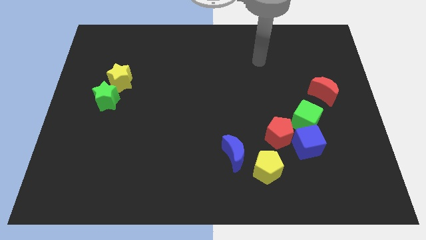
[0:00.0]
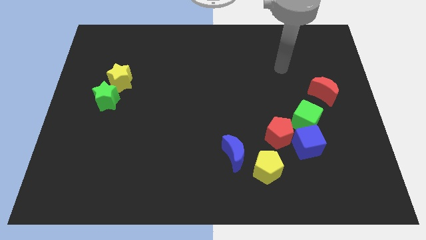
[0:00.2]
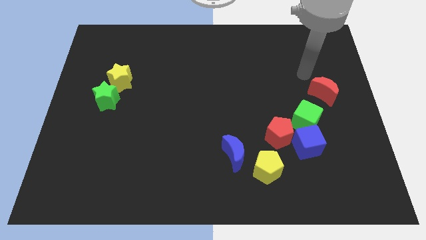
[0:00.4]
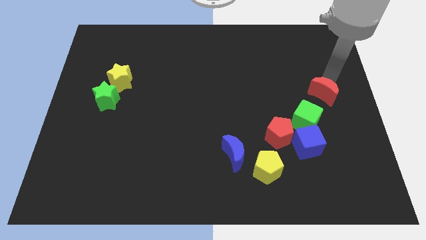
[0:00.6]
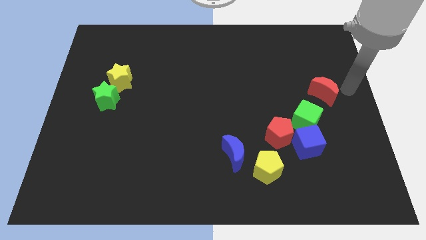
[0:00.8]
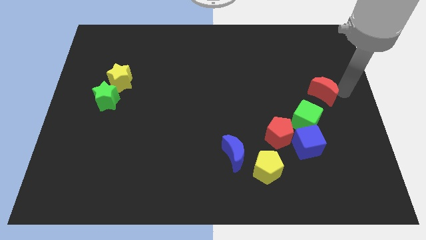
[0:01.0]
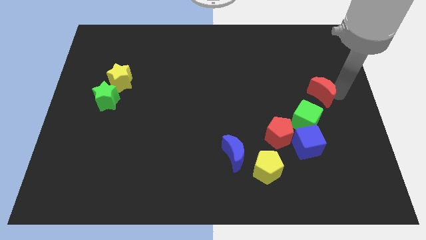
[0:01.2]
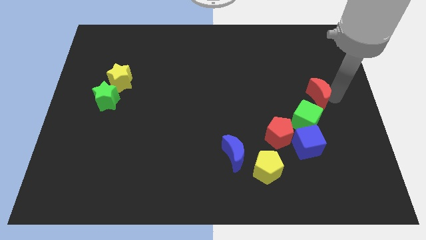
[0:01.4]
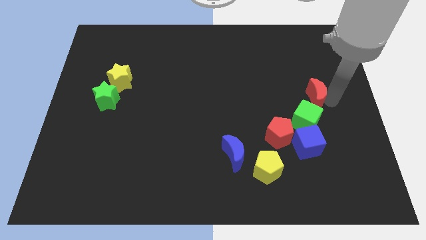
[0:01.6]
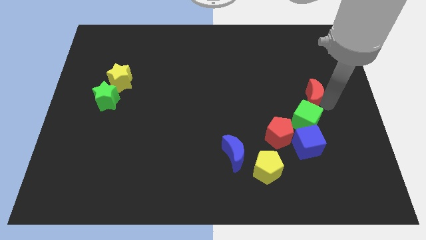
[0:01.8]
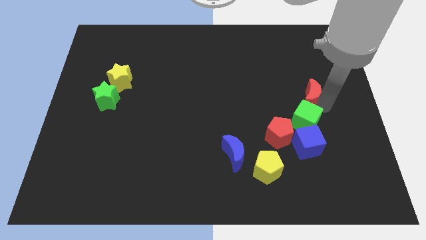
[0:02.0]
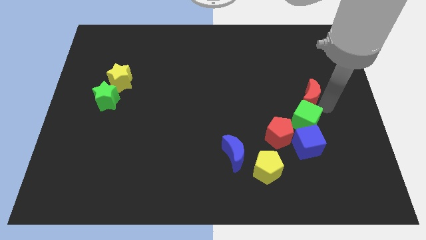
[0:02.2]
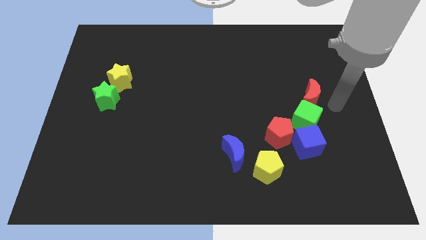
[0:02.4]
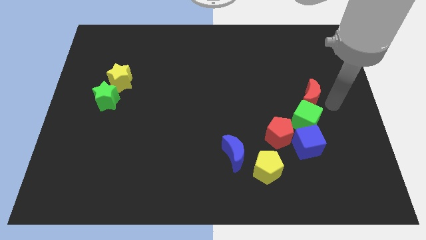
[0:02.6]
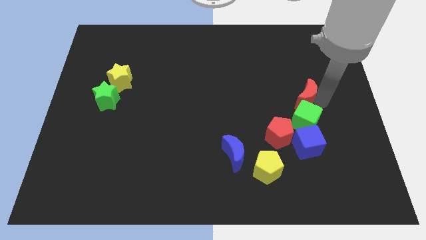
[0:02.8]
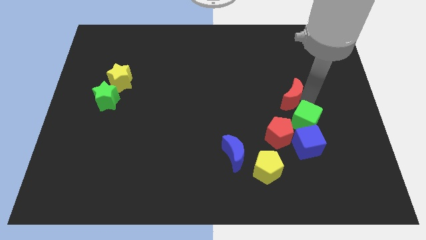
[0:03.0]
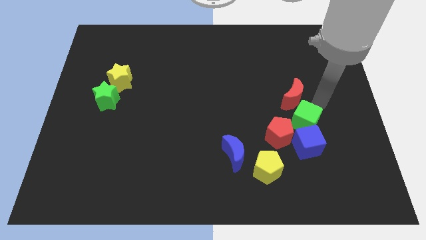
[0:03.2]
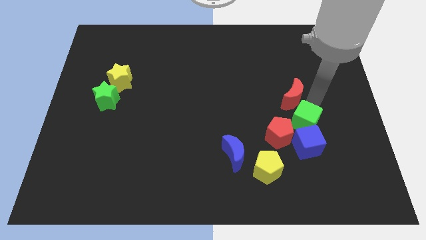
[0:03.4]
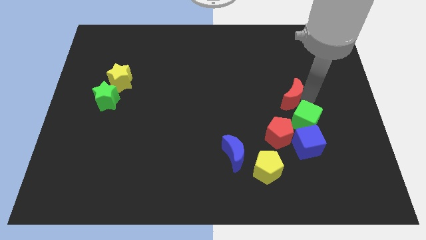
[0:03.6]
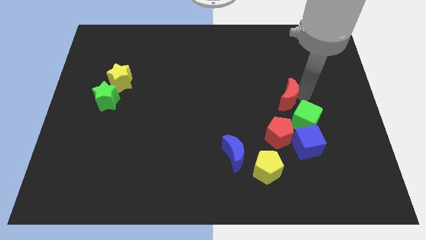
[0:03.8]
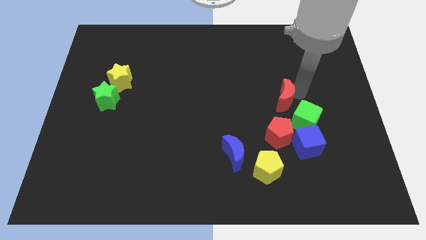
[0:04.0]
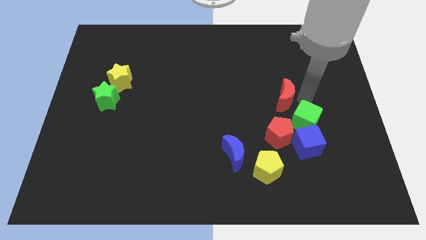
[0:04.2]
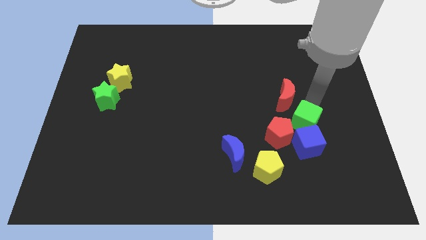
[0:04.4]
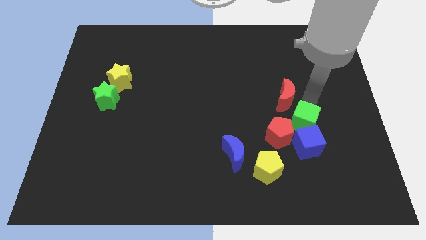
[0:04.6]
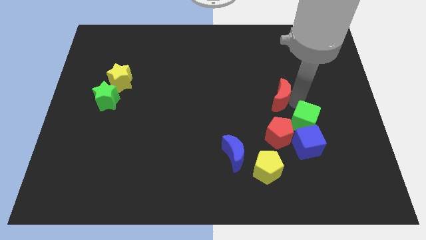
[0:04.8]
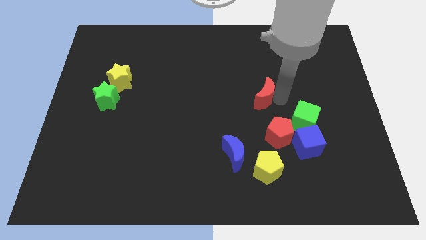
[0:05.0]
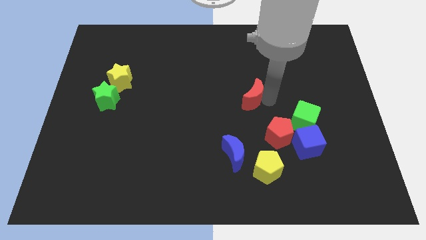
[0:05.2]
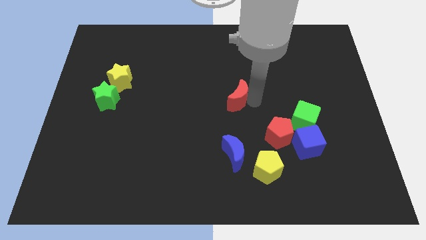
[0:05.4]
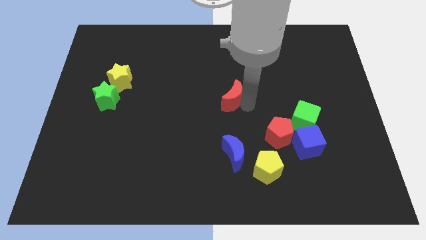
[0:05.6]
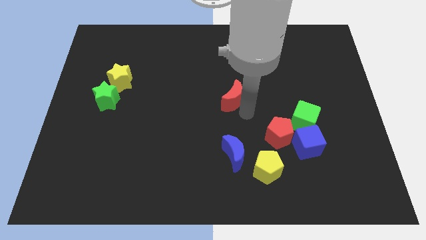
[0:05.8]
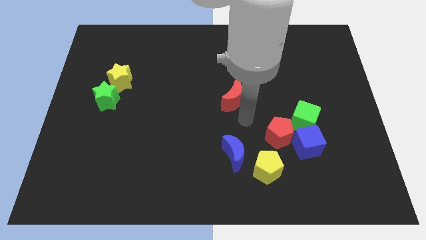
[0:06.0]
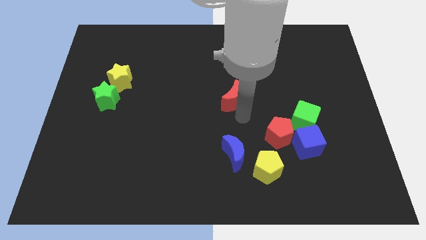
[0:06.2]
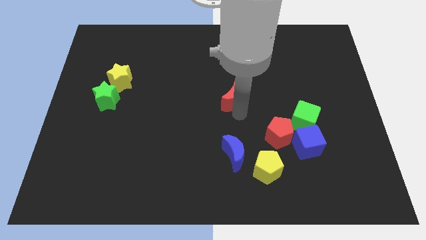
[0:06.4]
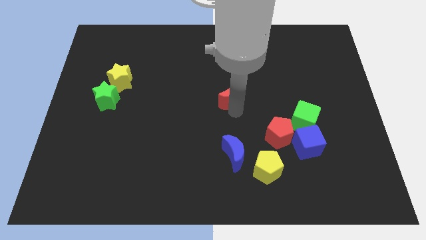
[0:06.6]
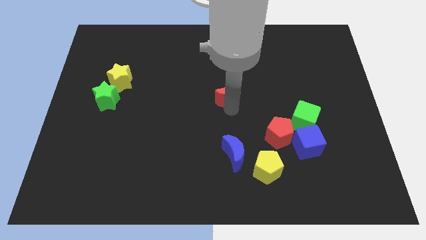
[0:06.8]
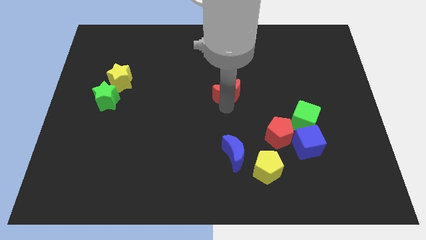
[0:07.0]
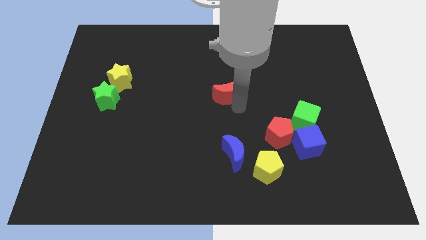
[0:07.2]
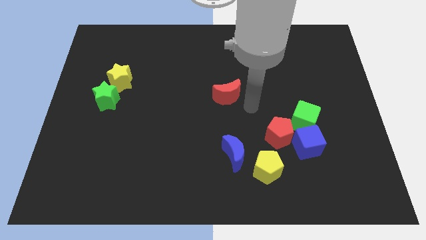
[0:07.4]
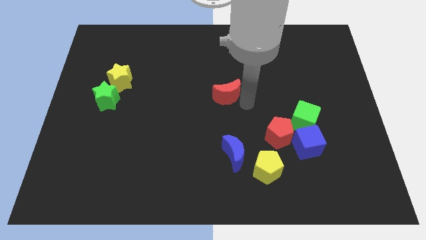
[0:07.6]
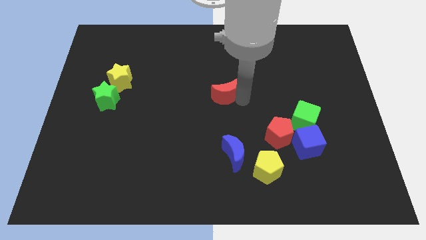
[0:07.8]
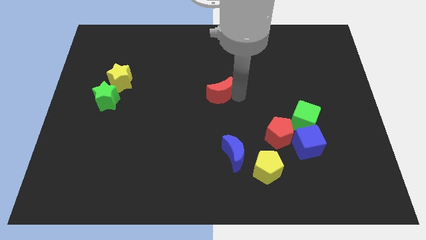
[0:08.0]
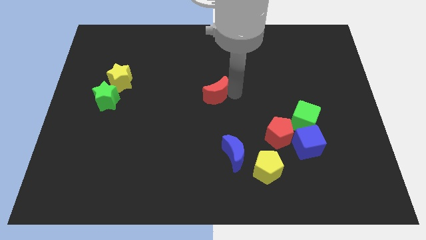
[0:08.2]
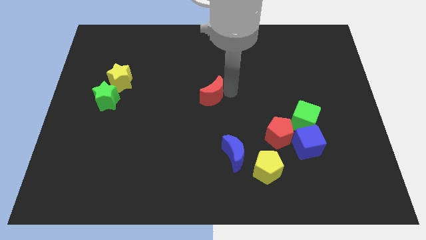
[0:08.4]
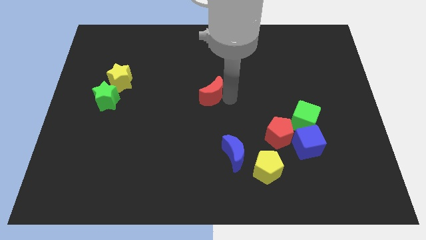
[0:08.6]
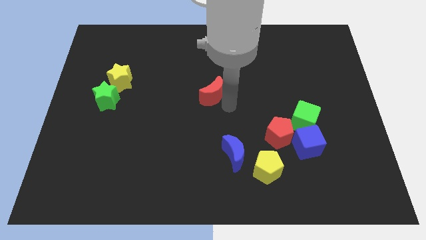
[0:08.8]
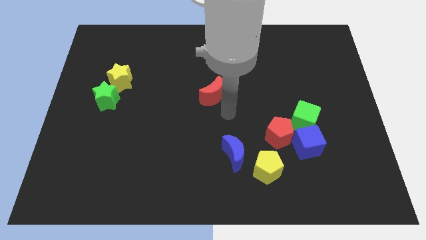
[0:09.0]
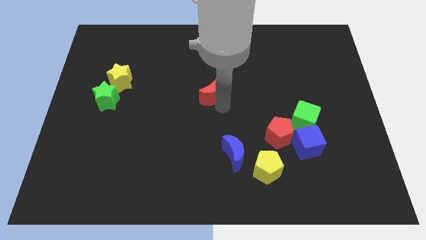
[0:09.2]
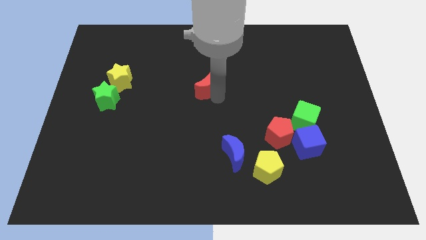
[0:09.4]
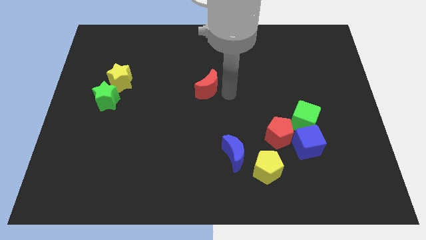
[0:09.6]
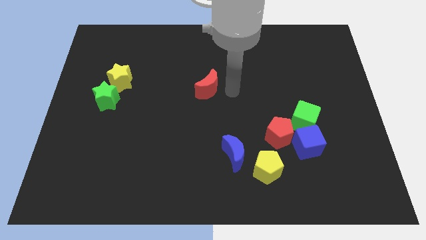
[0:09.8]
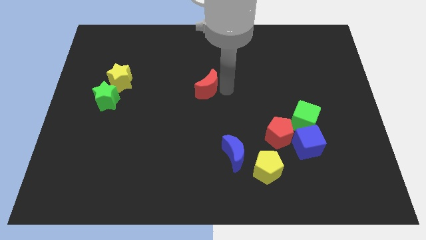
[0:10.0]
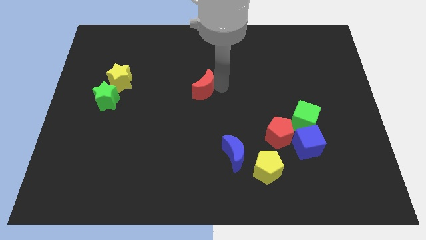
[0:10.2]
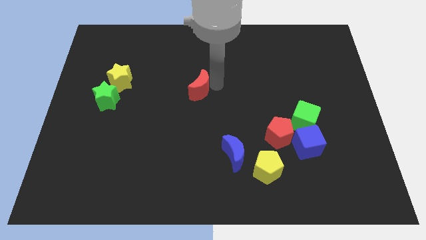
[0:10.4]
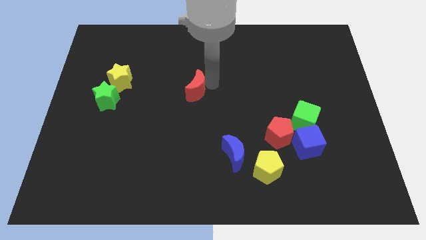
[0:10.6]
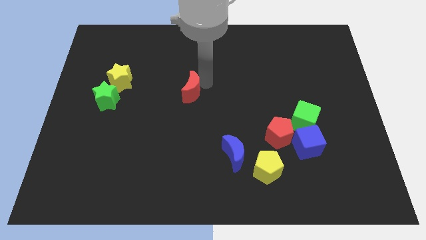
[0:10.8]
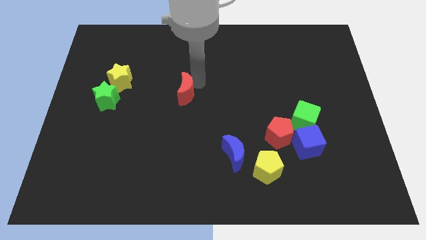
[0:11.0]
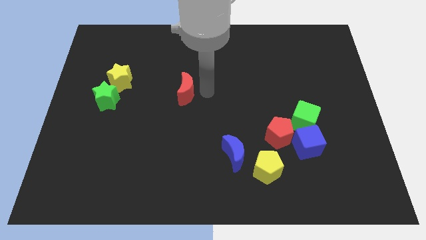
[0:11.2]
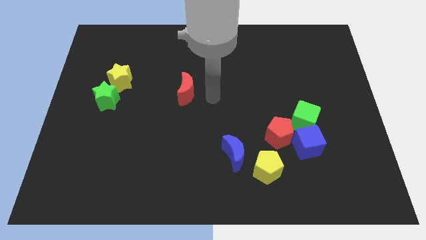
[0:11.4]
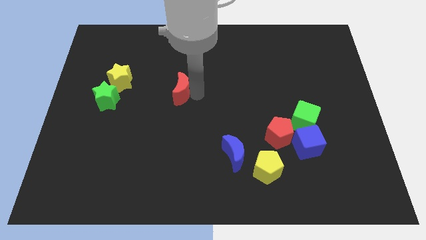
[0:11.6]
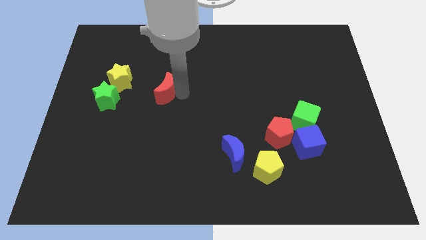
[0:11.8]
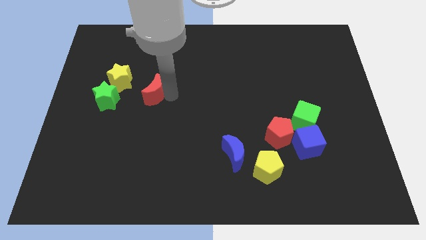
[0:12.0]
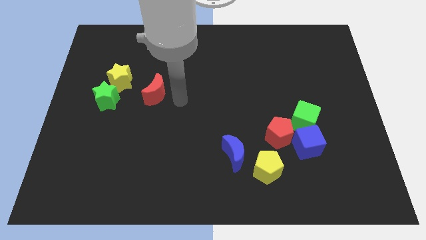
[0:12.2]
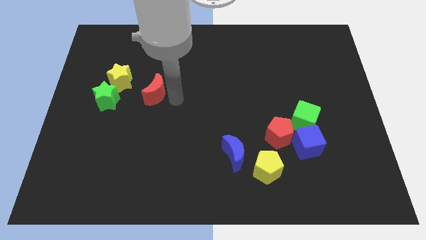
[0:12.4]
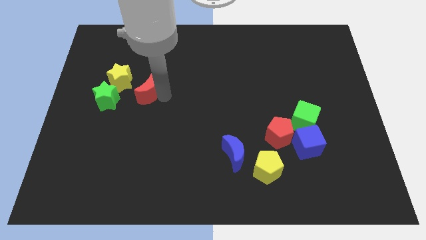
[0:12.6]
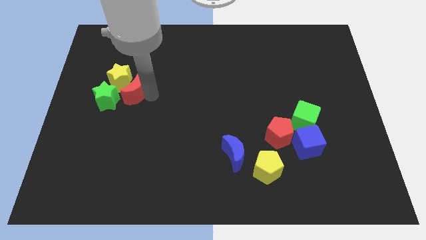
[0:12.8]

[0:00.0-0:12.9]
push the red moon close to the yellow star

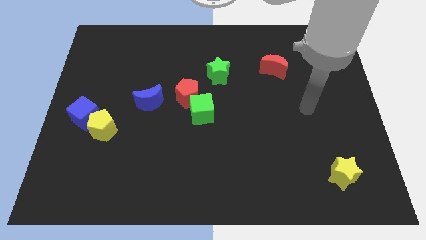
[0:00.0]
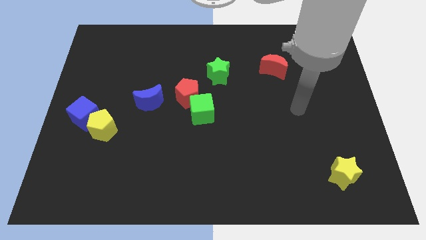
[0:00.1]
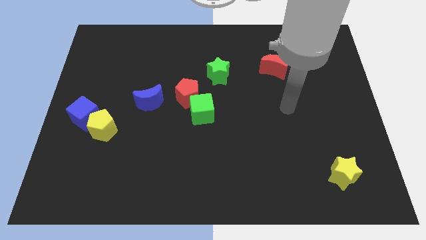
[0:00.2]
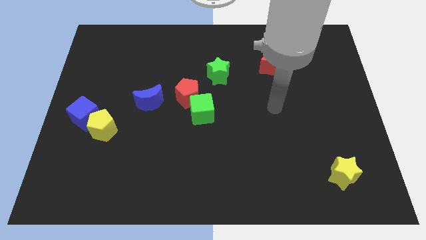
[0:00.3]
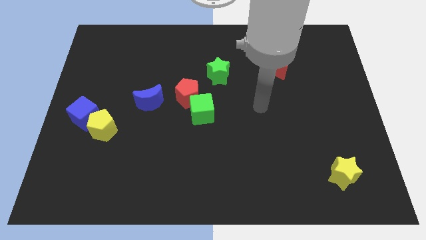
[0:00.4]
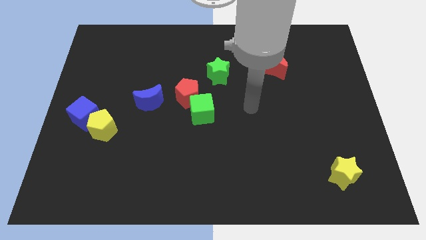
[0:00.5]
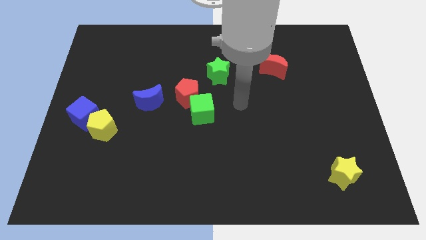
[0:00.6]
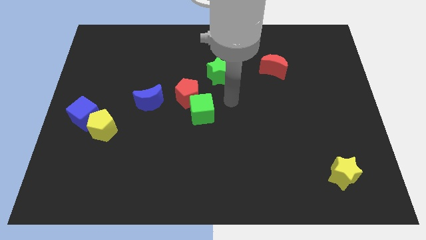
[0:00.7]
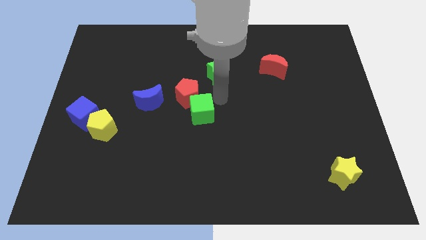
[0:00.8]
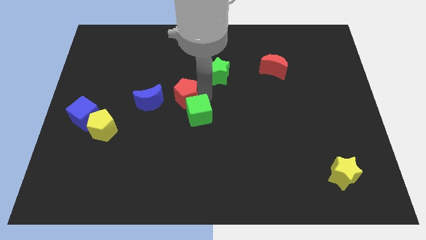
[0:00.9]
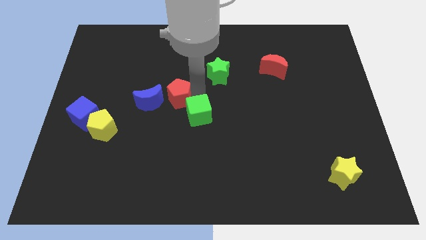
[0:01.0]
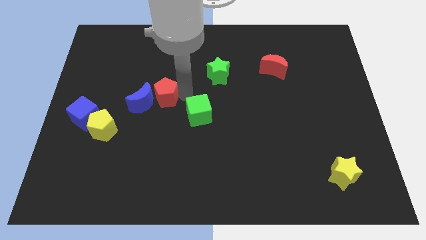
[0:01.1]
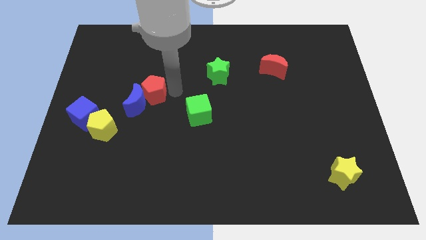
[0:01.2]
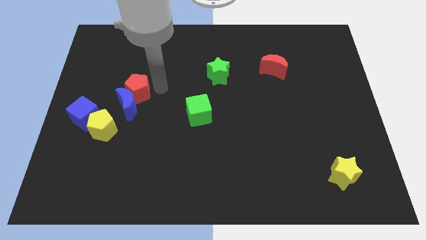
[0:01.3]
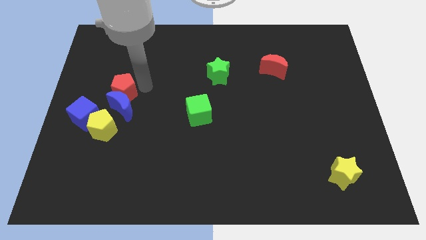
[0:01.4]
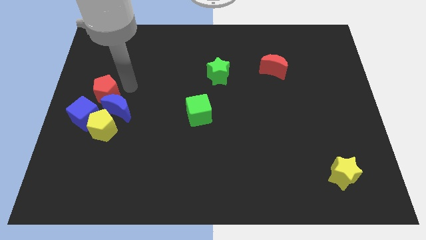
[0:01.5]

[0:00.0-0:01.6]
put the blue moon to the yellow pentagon
